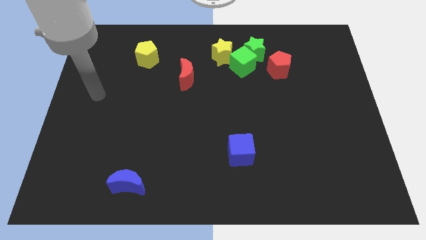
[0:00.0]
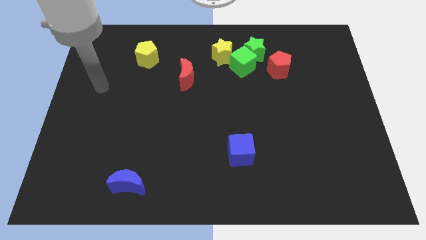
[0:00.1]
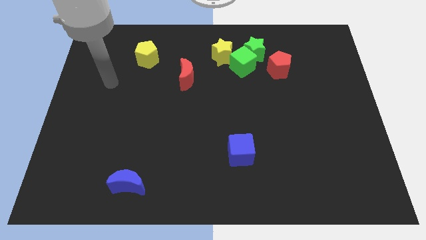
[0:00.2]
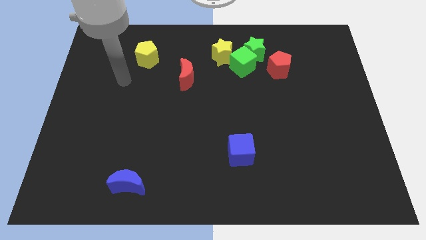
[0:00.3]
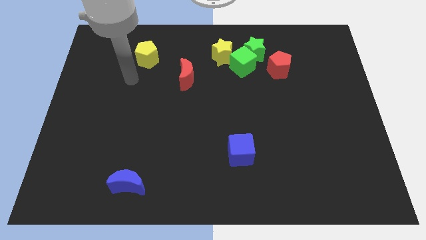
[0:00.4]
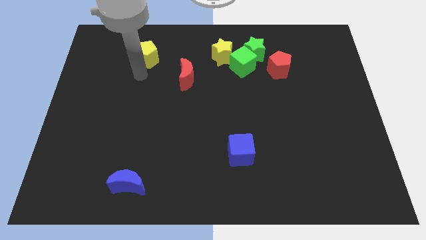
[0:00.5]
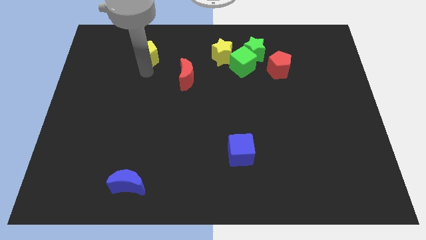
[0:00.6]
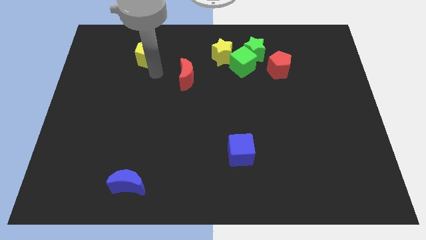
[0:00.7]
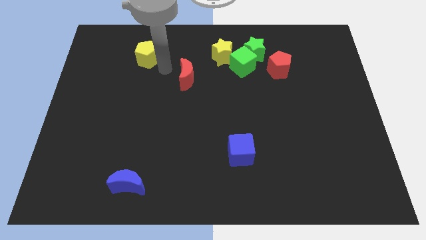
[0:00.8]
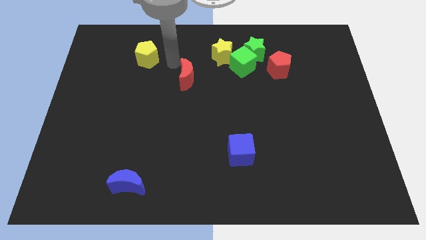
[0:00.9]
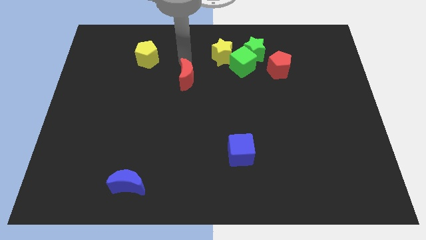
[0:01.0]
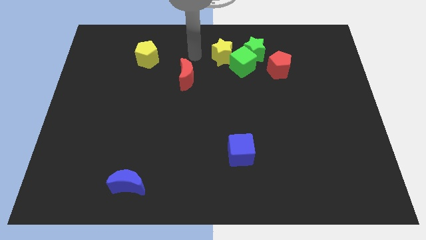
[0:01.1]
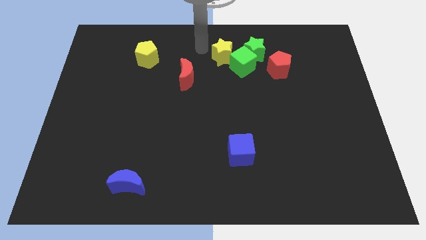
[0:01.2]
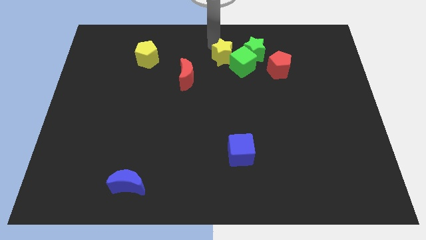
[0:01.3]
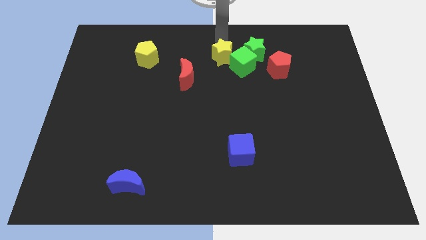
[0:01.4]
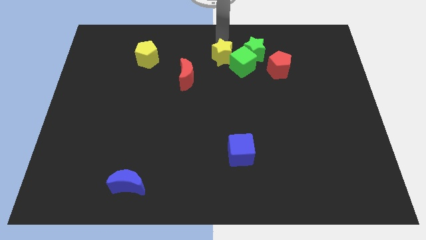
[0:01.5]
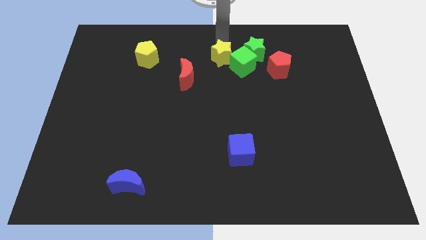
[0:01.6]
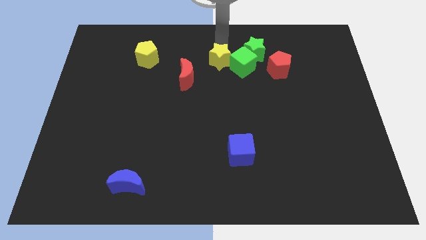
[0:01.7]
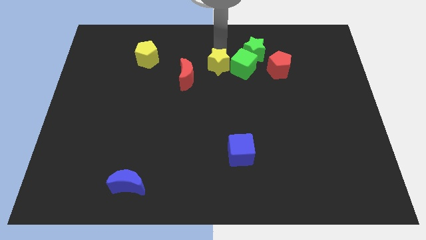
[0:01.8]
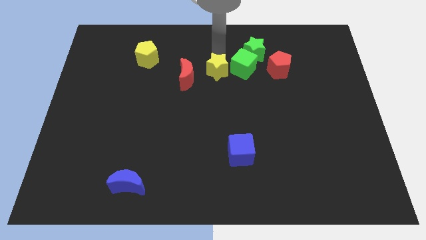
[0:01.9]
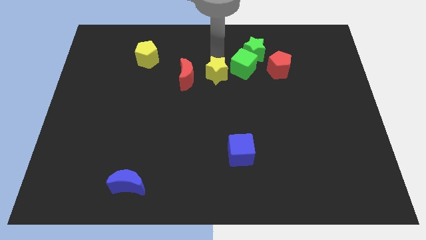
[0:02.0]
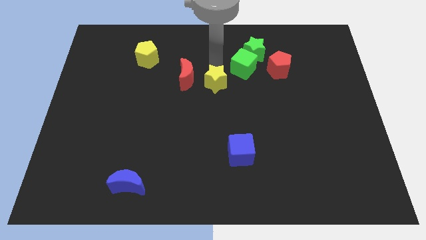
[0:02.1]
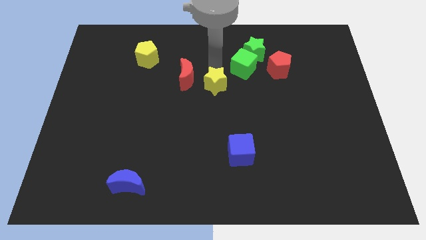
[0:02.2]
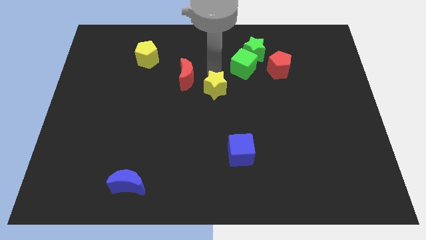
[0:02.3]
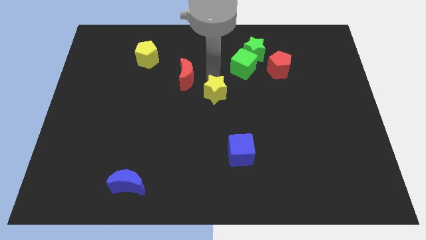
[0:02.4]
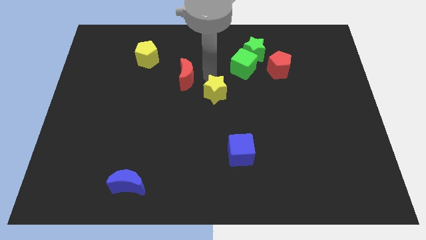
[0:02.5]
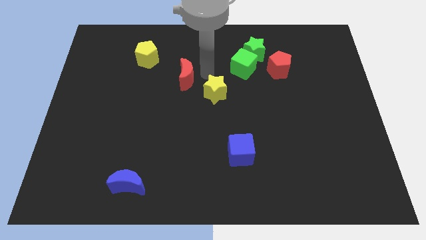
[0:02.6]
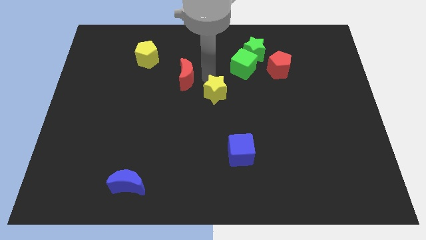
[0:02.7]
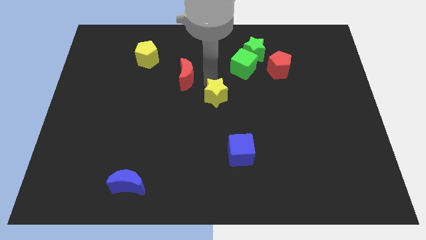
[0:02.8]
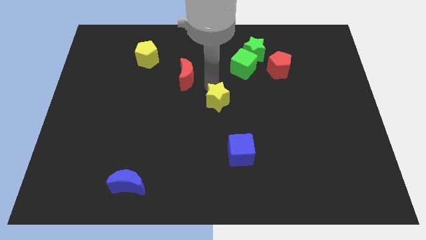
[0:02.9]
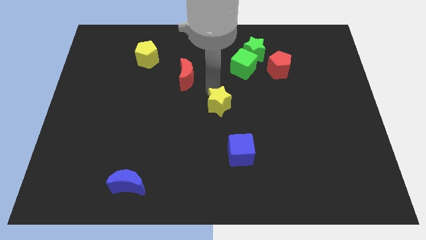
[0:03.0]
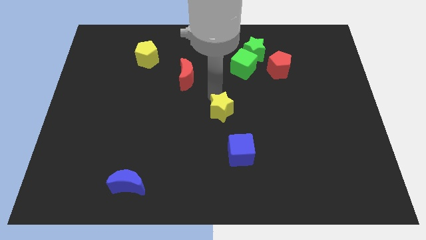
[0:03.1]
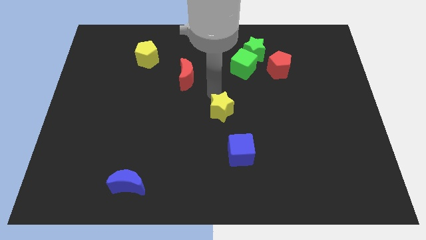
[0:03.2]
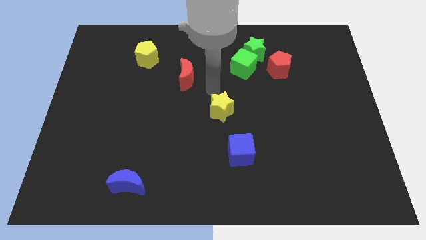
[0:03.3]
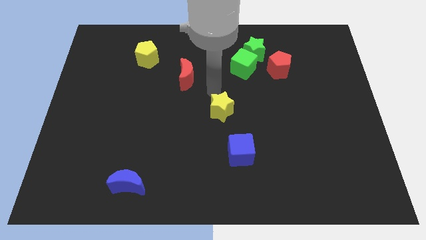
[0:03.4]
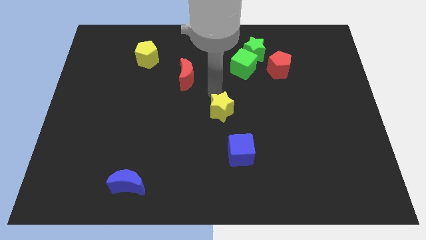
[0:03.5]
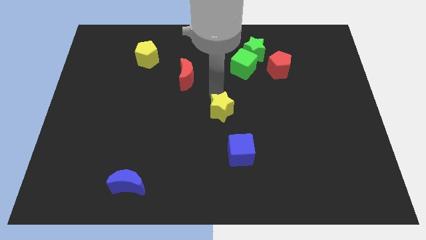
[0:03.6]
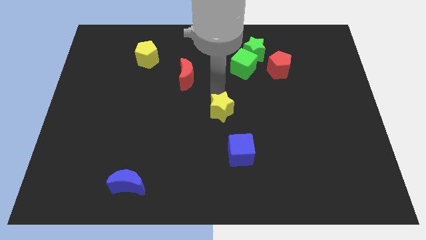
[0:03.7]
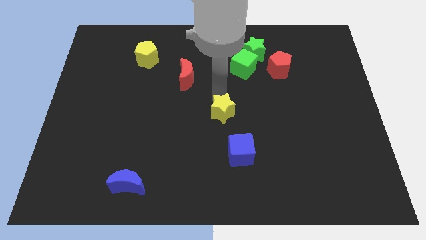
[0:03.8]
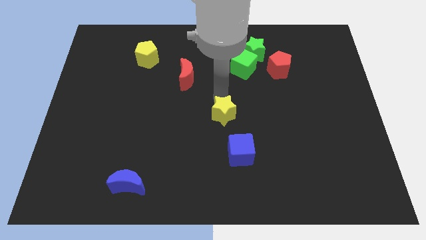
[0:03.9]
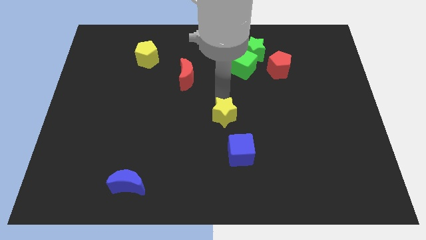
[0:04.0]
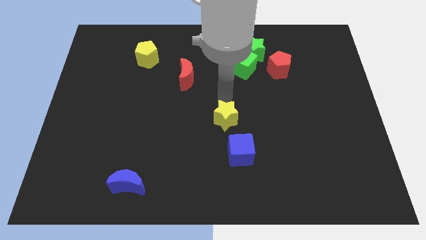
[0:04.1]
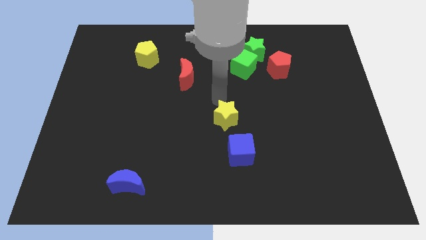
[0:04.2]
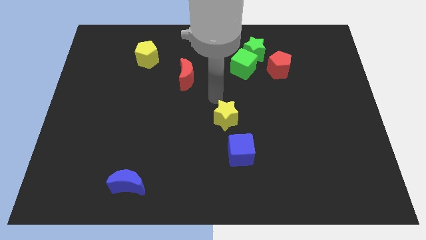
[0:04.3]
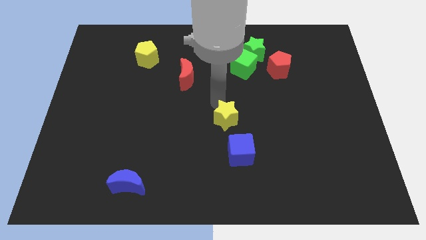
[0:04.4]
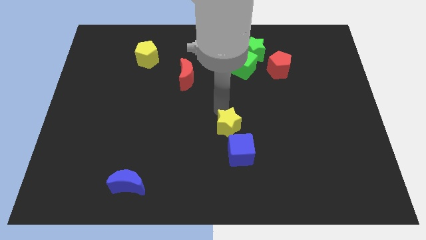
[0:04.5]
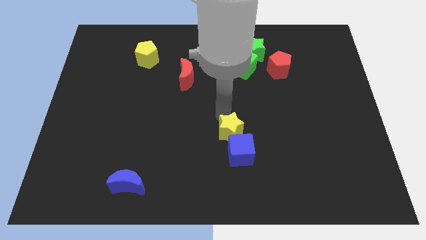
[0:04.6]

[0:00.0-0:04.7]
slide the yellow star next to the blue cube

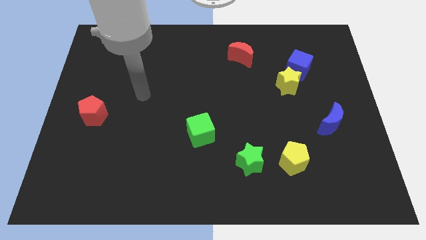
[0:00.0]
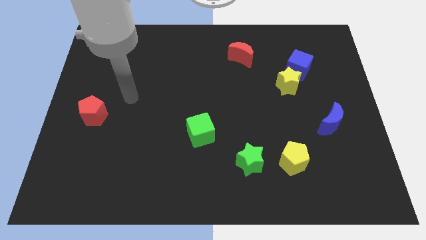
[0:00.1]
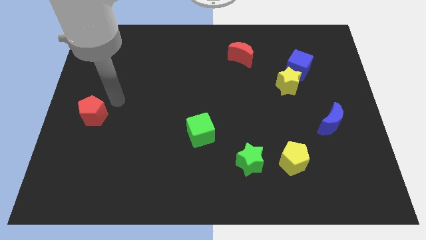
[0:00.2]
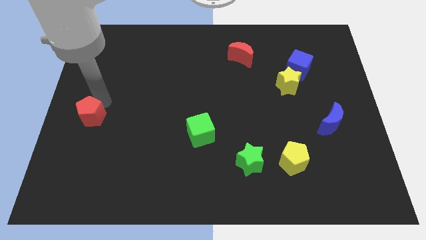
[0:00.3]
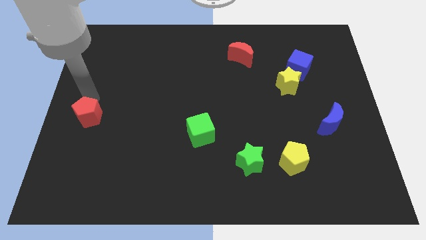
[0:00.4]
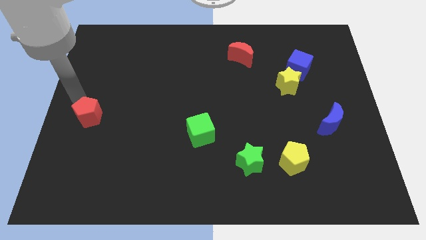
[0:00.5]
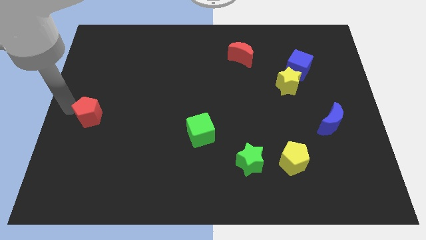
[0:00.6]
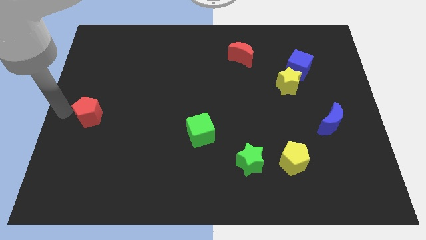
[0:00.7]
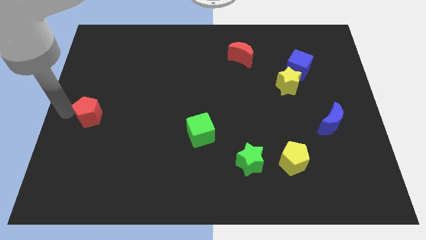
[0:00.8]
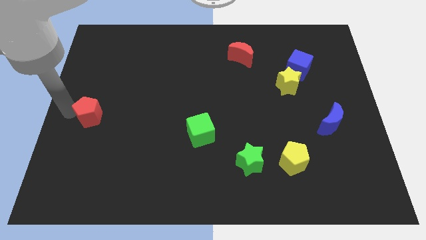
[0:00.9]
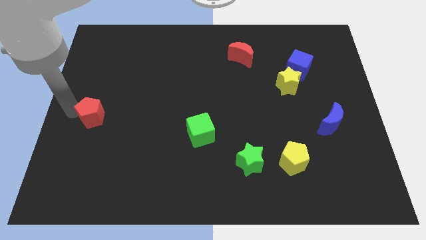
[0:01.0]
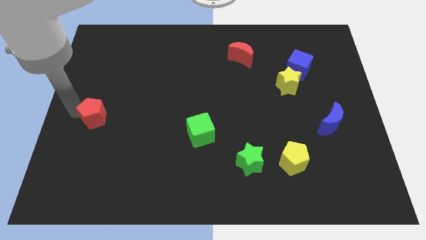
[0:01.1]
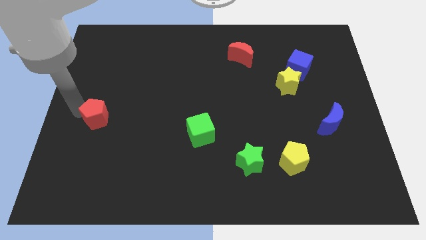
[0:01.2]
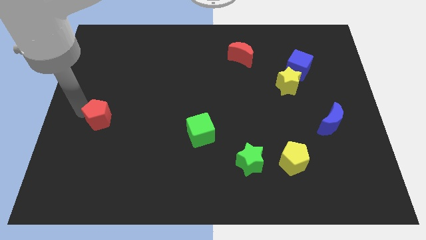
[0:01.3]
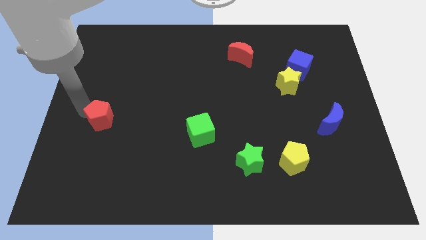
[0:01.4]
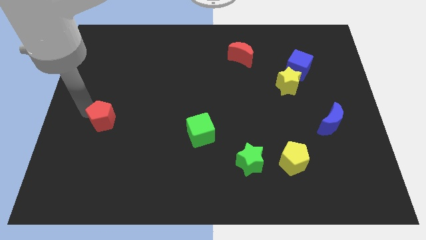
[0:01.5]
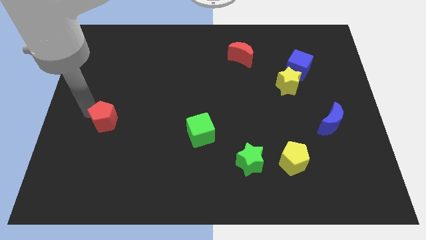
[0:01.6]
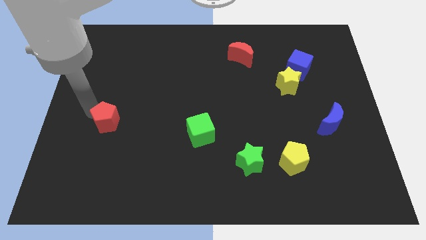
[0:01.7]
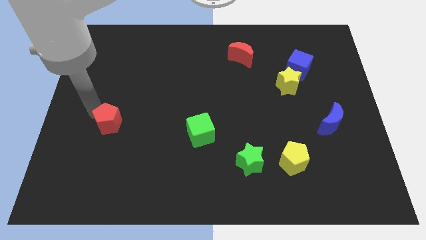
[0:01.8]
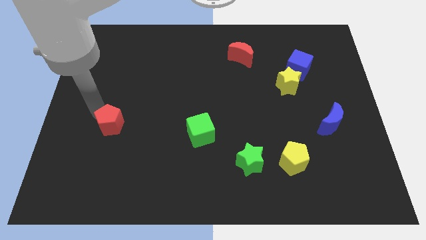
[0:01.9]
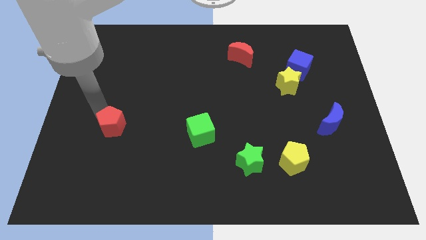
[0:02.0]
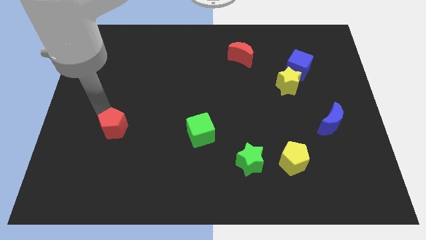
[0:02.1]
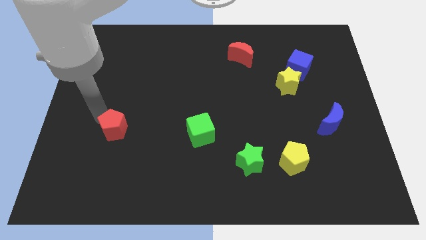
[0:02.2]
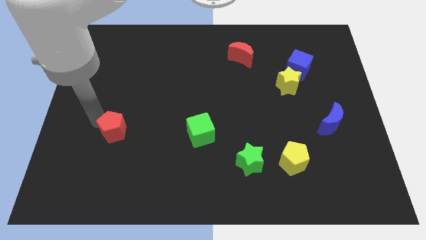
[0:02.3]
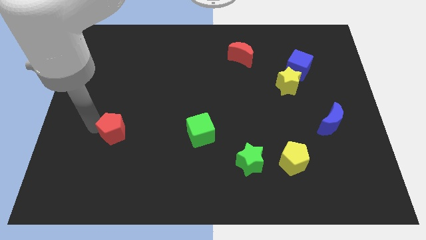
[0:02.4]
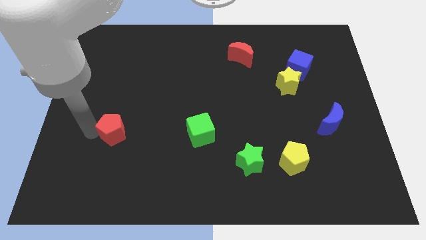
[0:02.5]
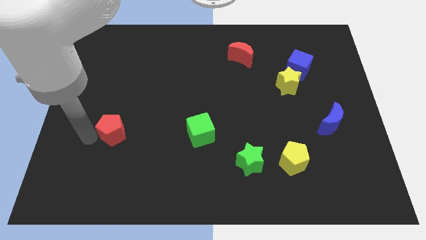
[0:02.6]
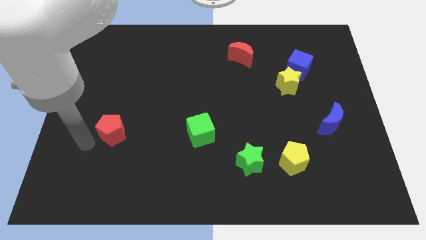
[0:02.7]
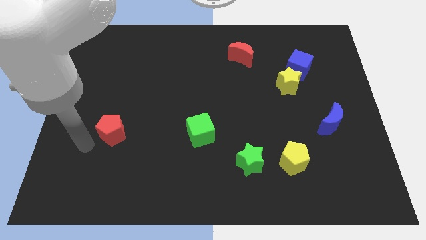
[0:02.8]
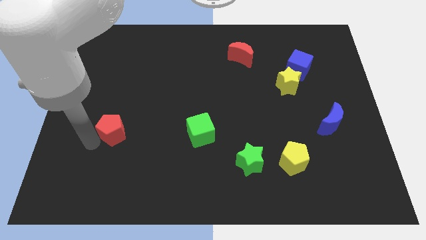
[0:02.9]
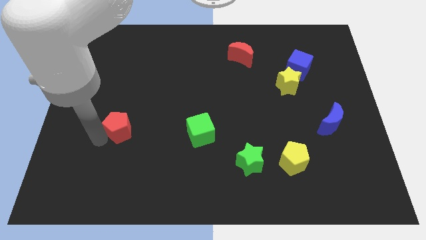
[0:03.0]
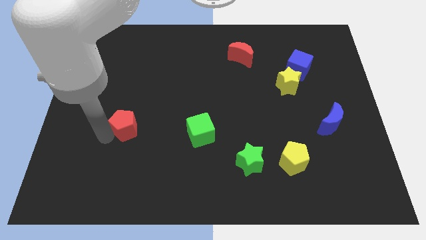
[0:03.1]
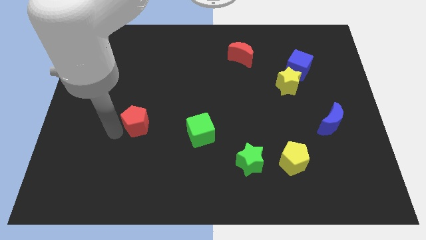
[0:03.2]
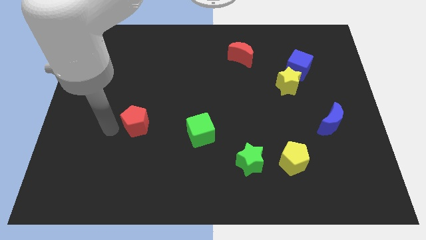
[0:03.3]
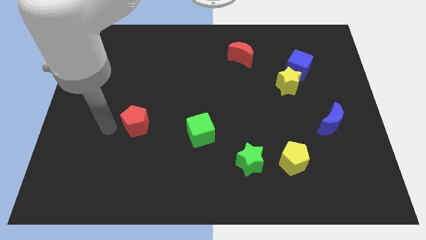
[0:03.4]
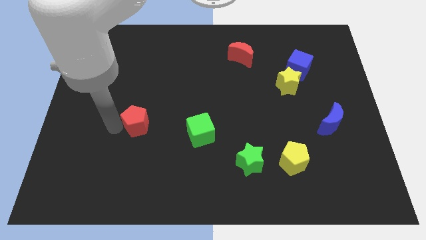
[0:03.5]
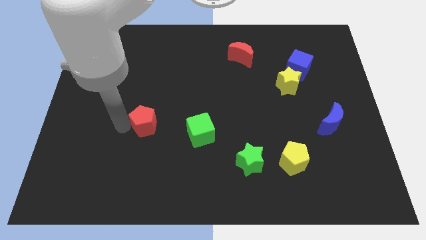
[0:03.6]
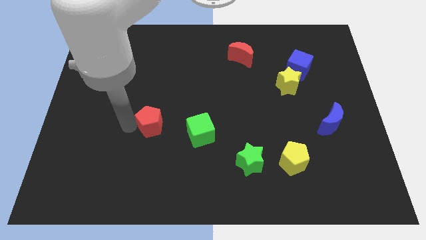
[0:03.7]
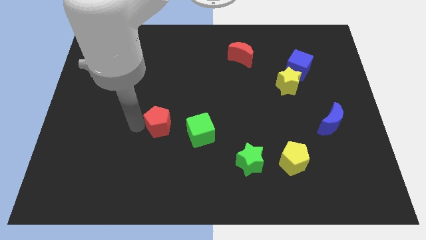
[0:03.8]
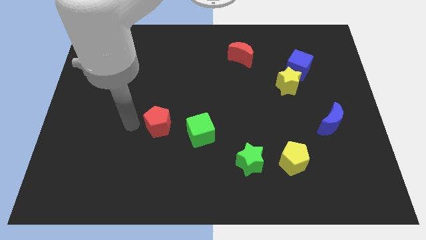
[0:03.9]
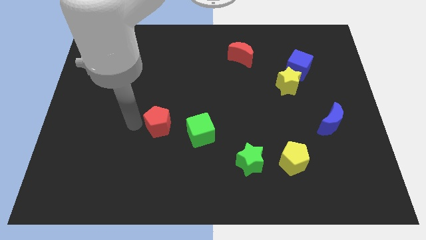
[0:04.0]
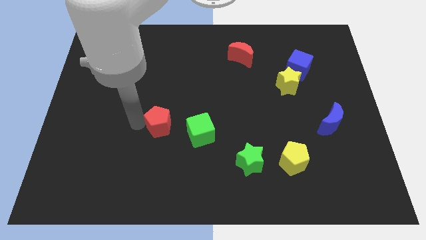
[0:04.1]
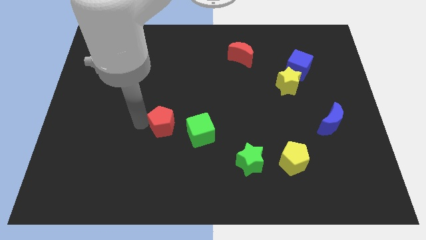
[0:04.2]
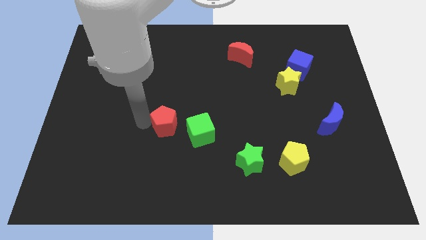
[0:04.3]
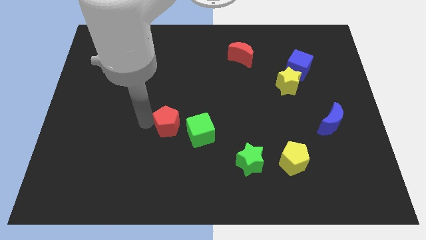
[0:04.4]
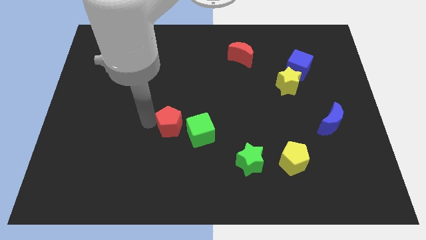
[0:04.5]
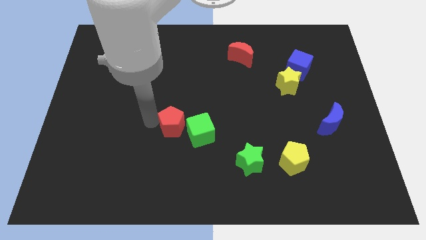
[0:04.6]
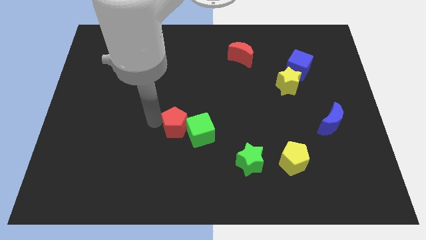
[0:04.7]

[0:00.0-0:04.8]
put the red pentagon next to the green cube
